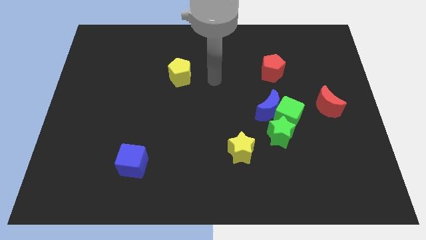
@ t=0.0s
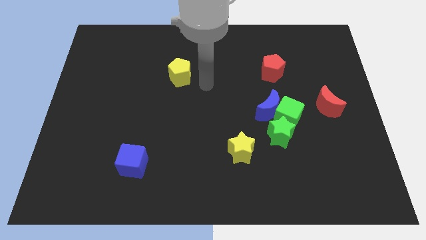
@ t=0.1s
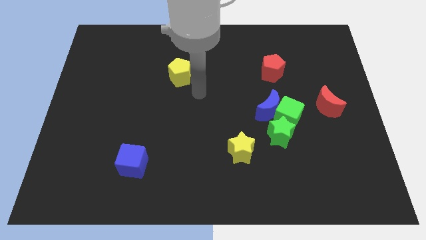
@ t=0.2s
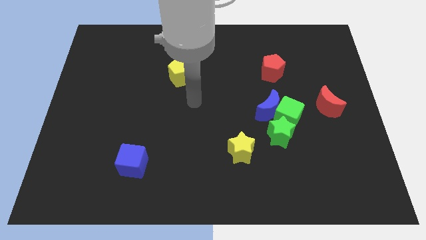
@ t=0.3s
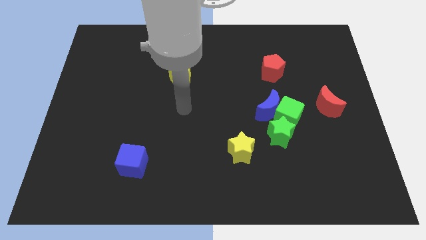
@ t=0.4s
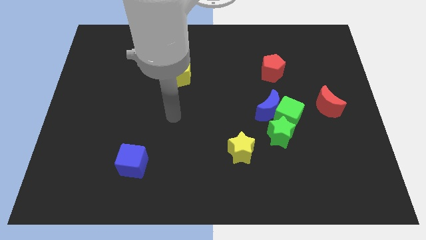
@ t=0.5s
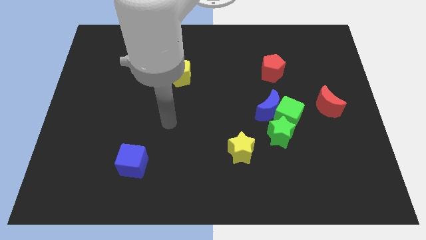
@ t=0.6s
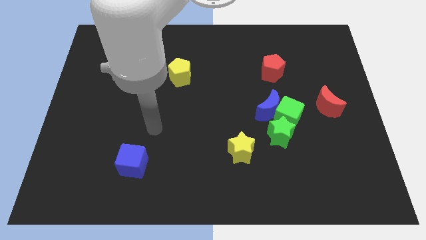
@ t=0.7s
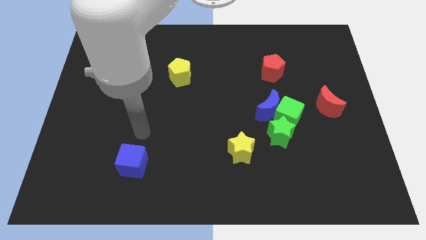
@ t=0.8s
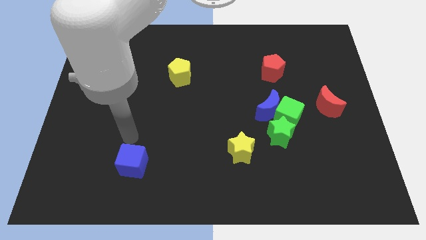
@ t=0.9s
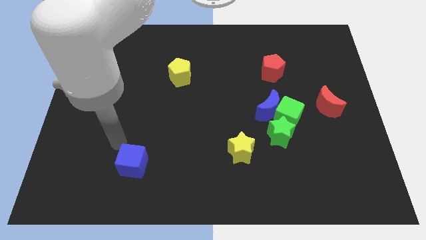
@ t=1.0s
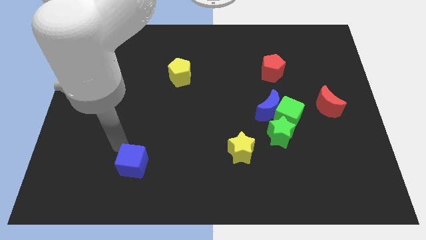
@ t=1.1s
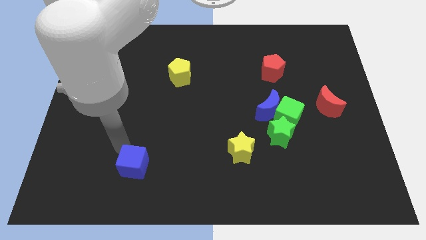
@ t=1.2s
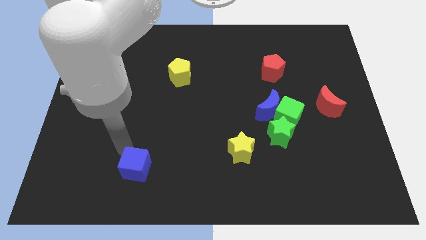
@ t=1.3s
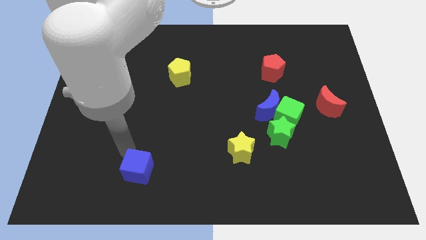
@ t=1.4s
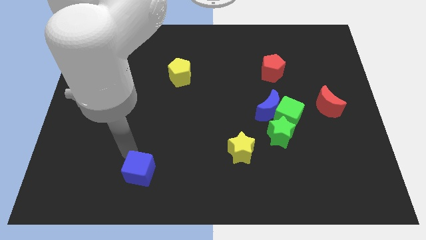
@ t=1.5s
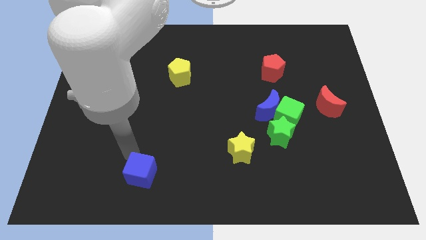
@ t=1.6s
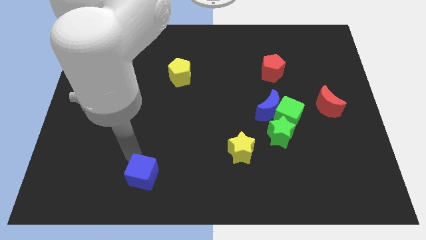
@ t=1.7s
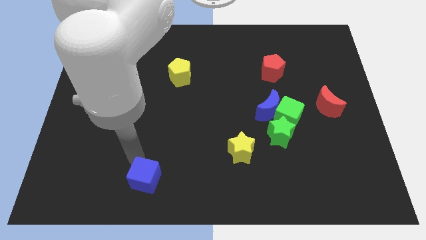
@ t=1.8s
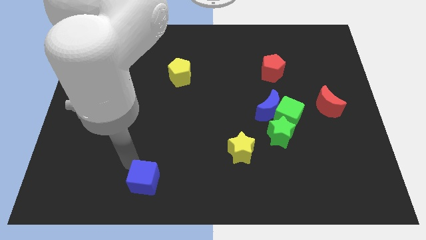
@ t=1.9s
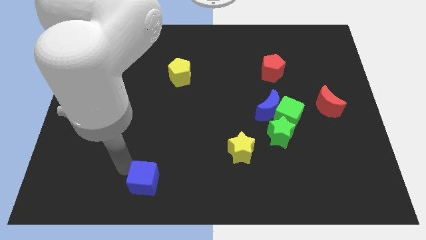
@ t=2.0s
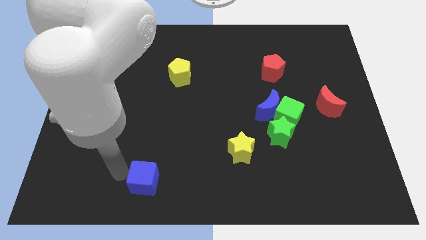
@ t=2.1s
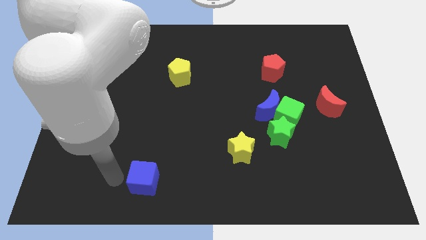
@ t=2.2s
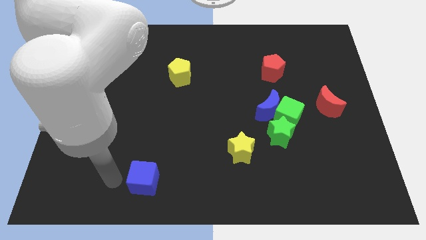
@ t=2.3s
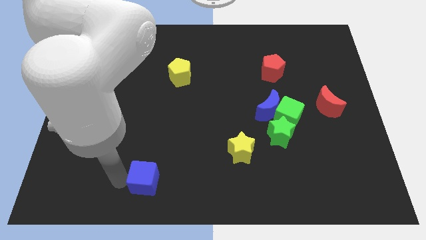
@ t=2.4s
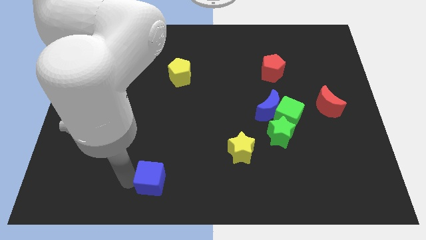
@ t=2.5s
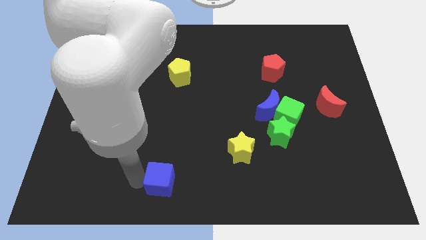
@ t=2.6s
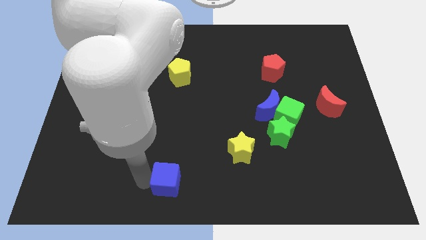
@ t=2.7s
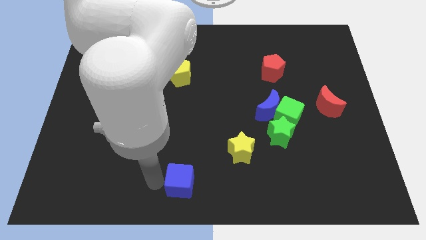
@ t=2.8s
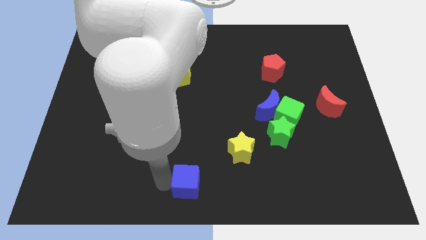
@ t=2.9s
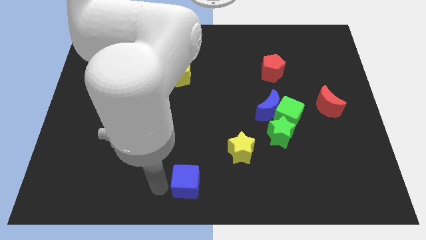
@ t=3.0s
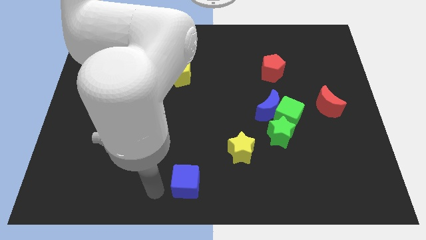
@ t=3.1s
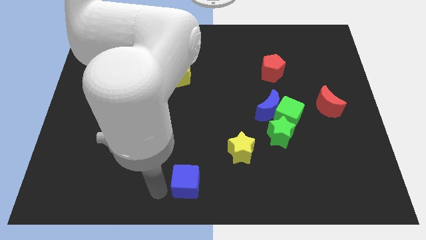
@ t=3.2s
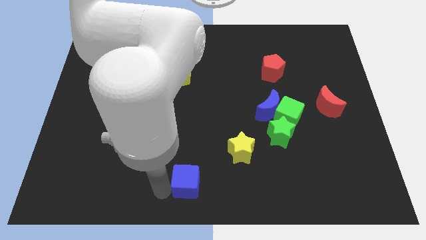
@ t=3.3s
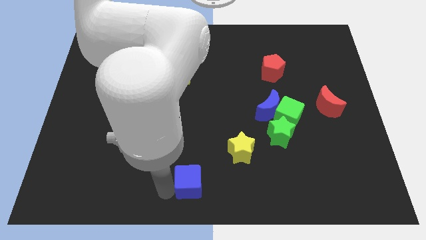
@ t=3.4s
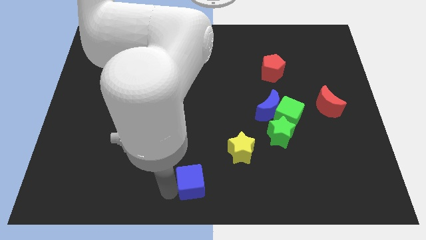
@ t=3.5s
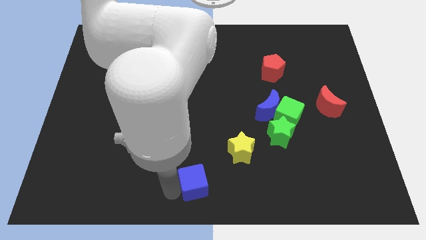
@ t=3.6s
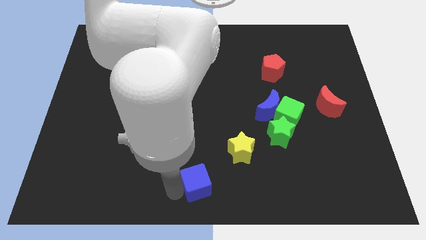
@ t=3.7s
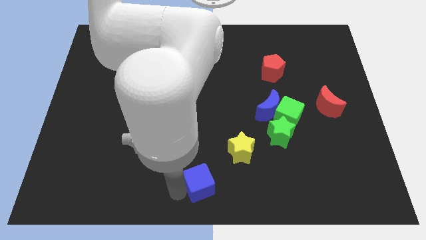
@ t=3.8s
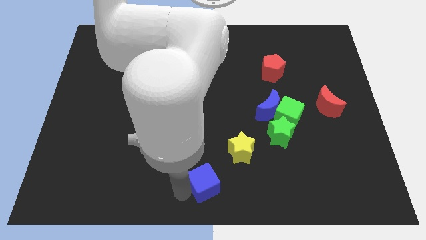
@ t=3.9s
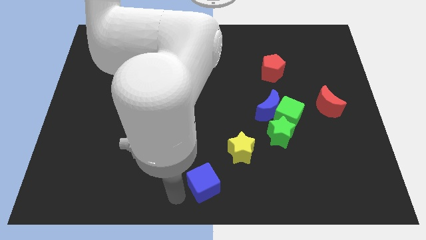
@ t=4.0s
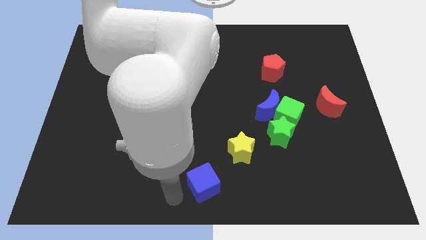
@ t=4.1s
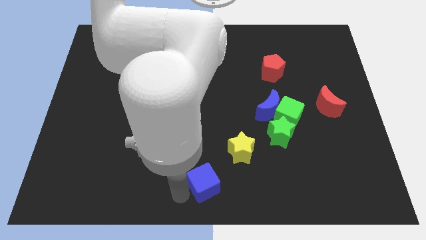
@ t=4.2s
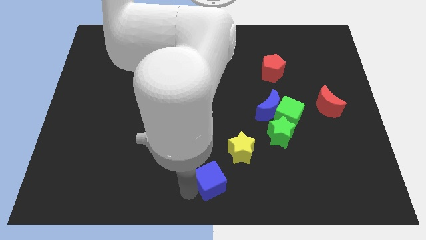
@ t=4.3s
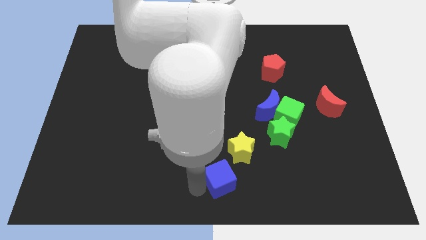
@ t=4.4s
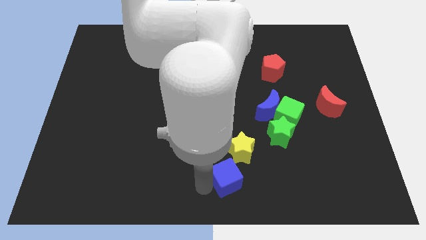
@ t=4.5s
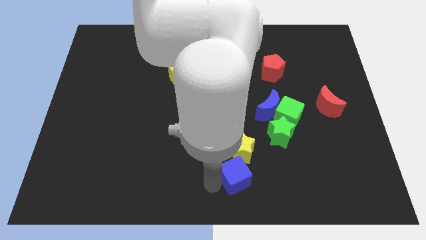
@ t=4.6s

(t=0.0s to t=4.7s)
push the blue cube right

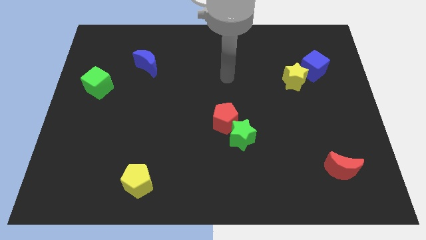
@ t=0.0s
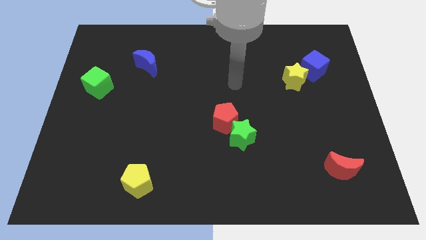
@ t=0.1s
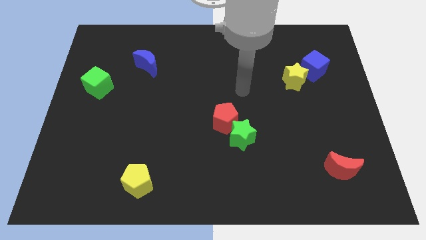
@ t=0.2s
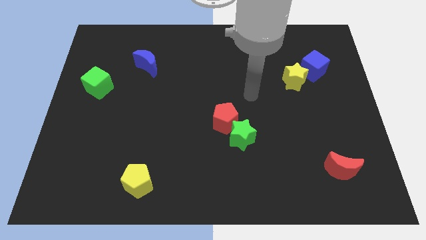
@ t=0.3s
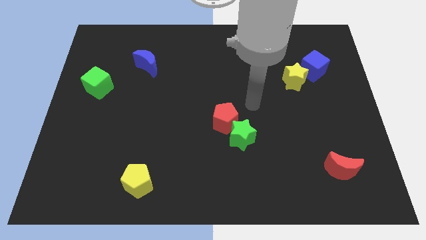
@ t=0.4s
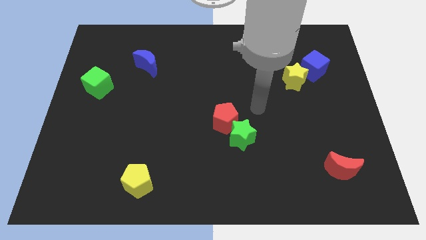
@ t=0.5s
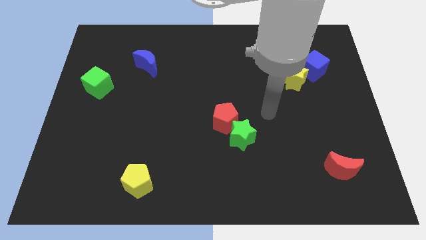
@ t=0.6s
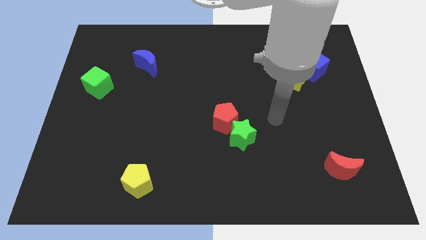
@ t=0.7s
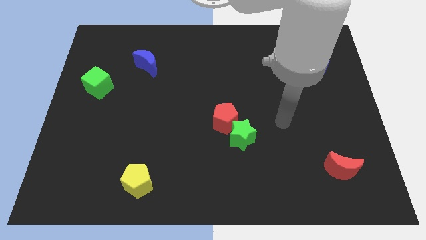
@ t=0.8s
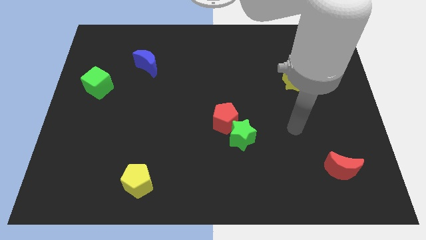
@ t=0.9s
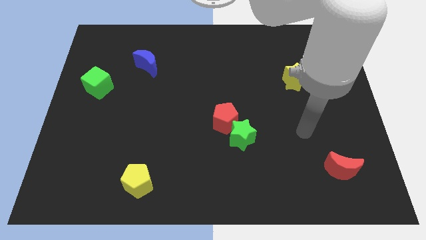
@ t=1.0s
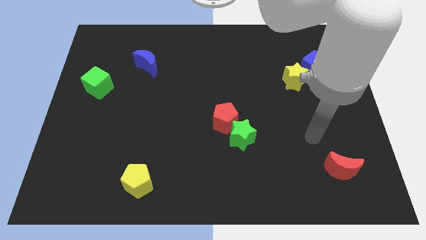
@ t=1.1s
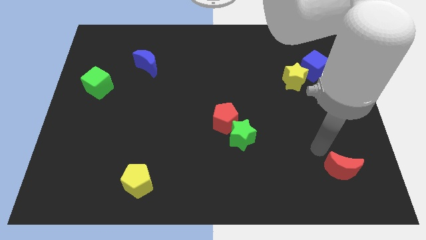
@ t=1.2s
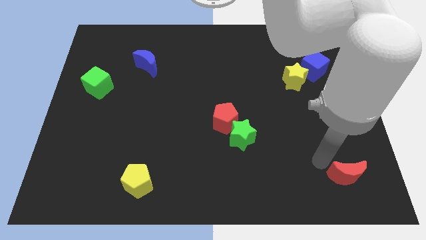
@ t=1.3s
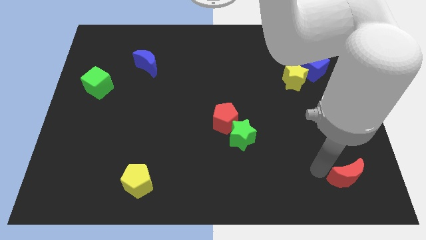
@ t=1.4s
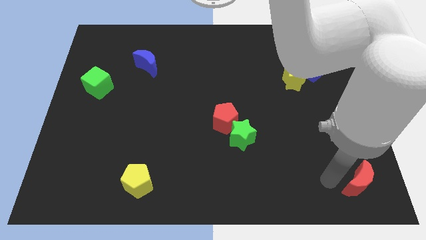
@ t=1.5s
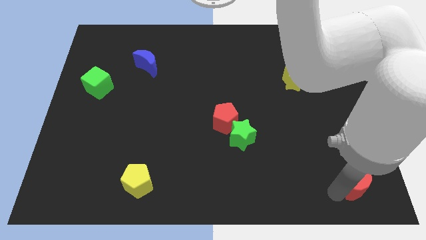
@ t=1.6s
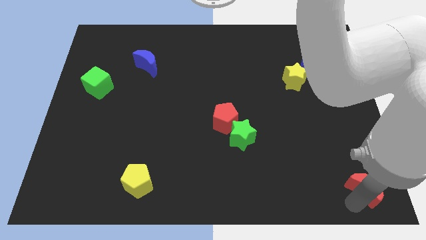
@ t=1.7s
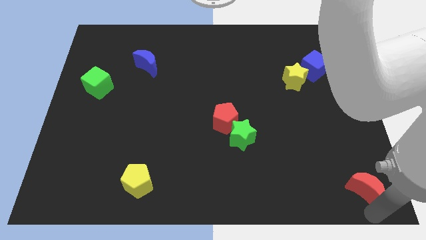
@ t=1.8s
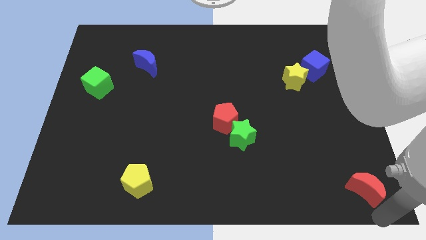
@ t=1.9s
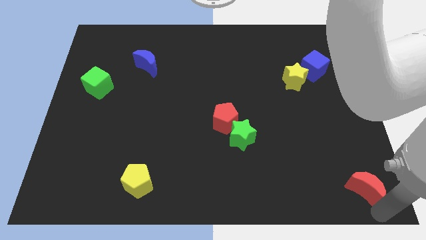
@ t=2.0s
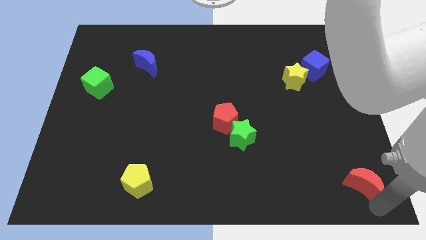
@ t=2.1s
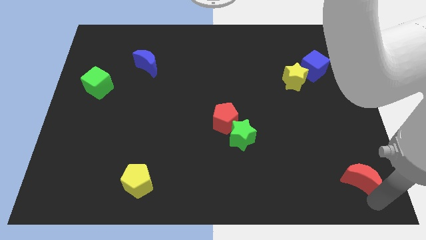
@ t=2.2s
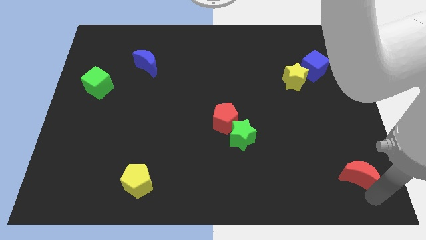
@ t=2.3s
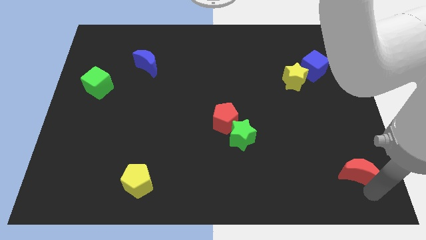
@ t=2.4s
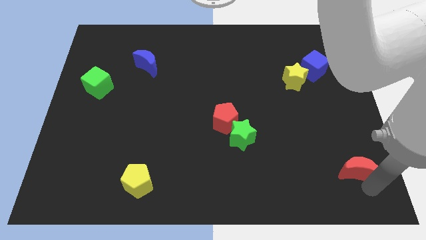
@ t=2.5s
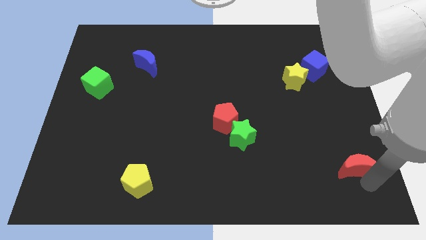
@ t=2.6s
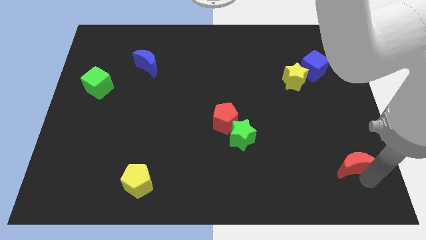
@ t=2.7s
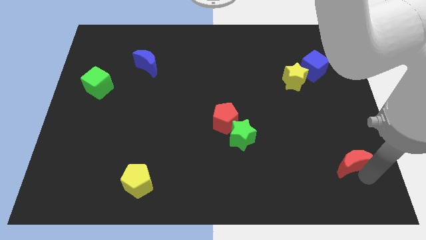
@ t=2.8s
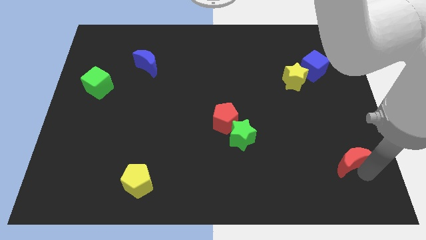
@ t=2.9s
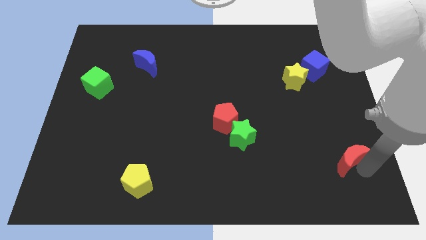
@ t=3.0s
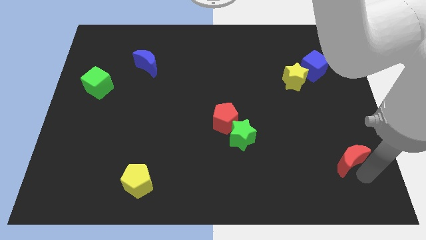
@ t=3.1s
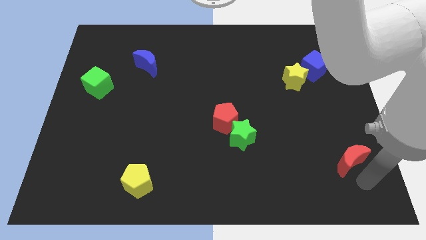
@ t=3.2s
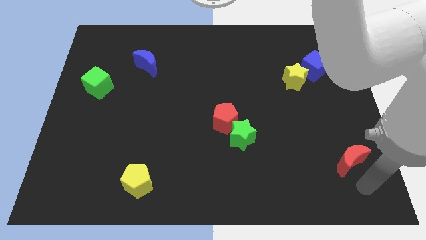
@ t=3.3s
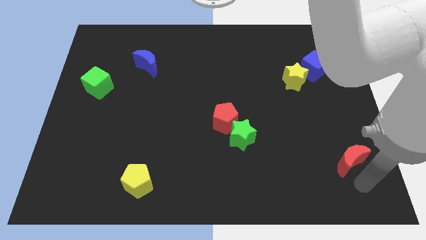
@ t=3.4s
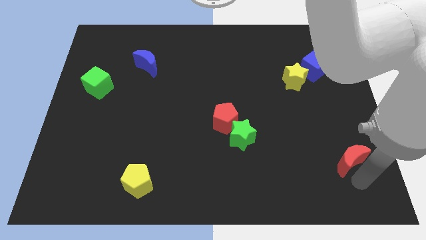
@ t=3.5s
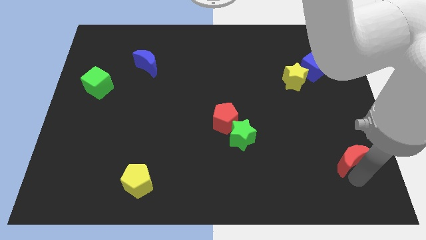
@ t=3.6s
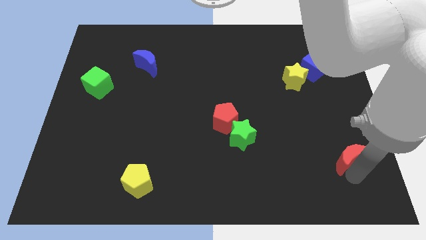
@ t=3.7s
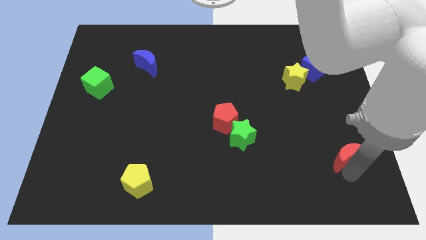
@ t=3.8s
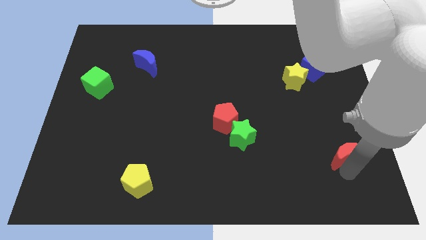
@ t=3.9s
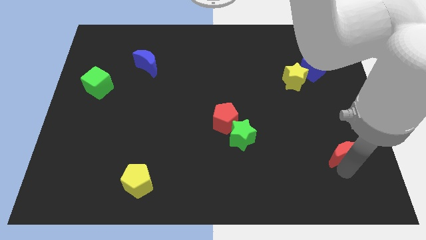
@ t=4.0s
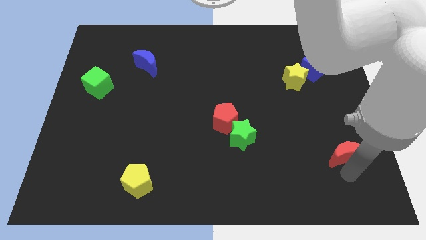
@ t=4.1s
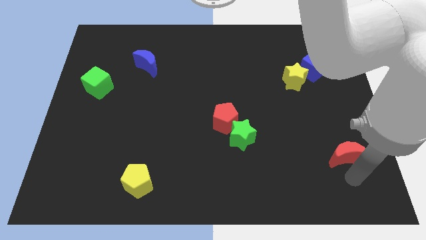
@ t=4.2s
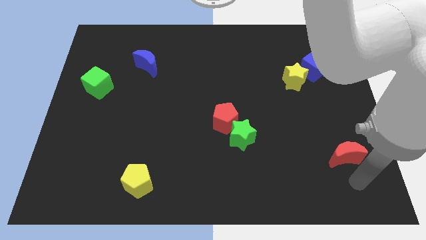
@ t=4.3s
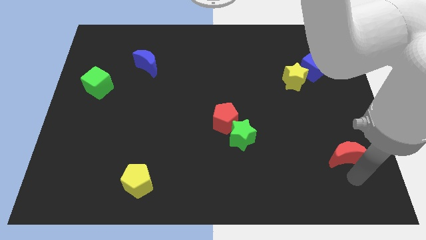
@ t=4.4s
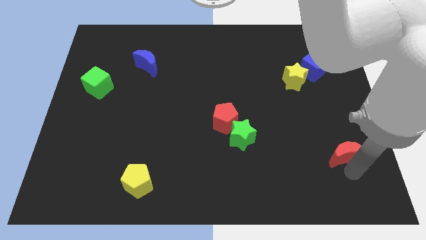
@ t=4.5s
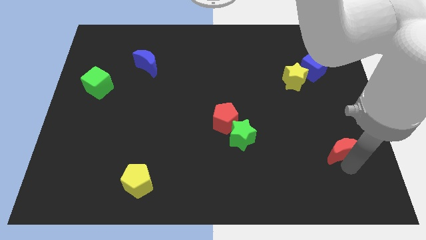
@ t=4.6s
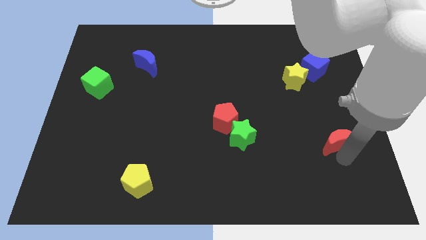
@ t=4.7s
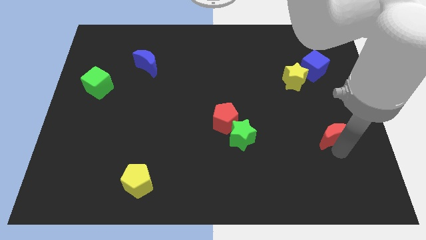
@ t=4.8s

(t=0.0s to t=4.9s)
slightly slide the red moon upwards
